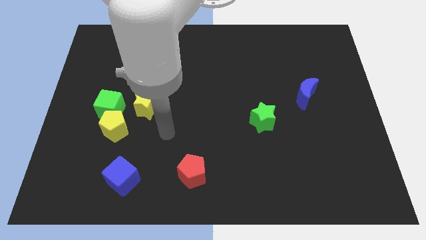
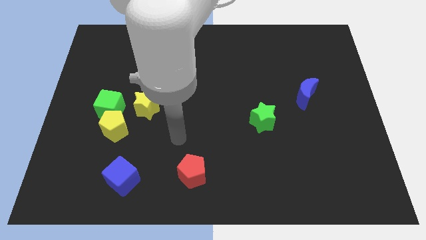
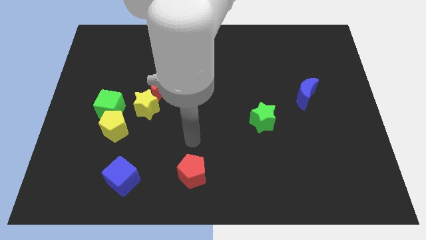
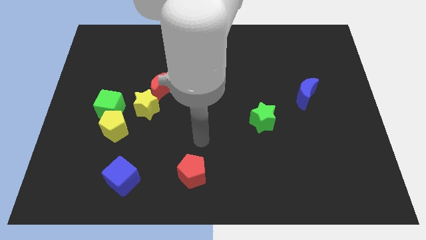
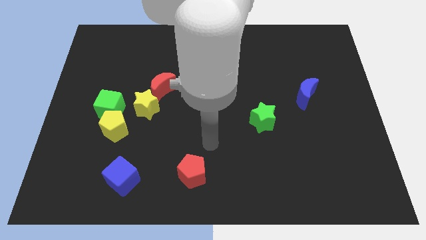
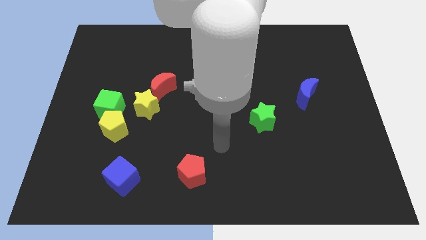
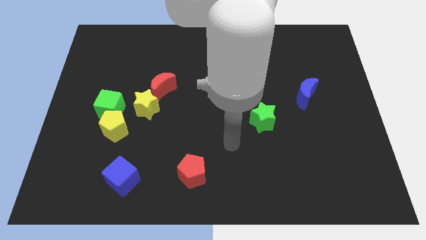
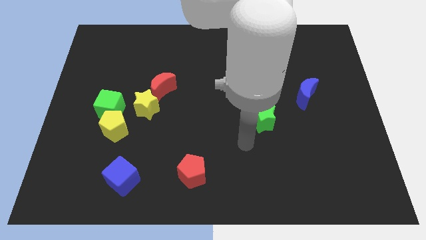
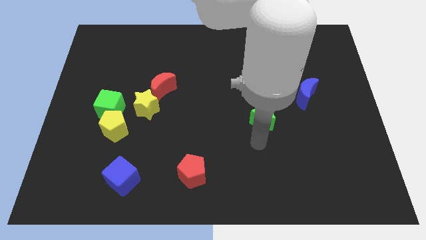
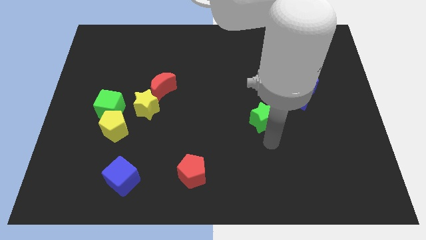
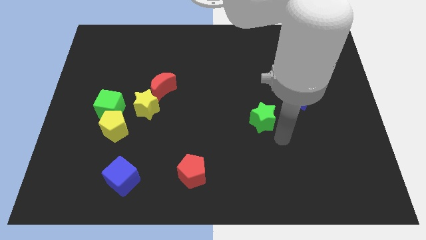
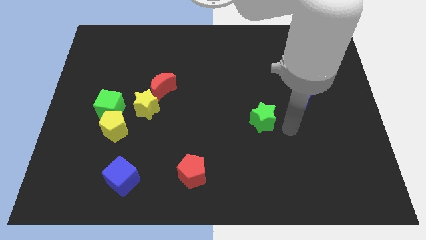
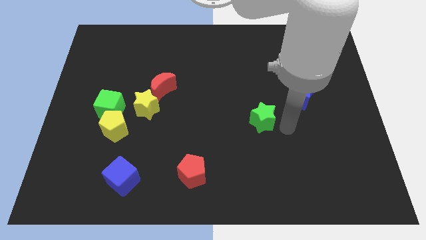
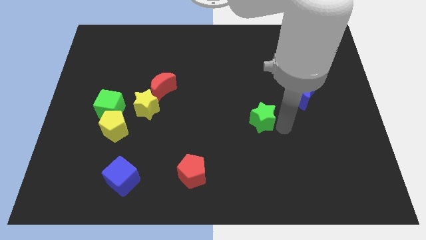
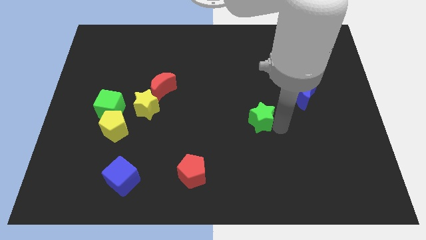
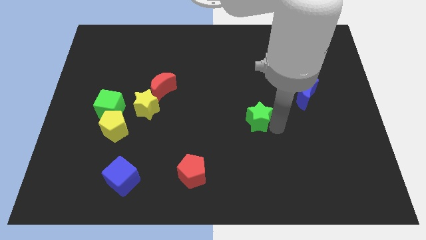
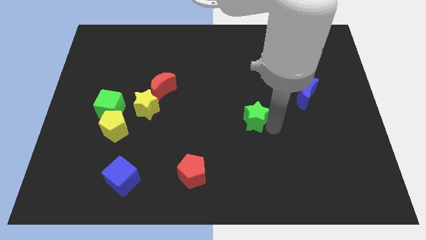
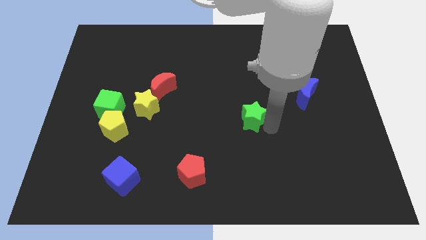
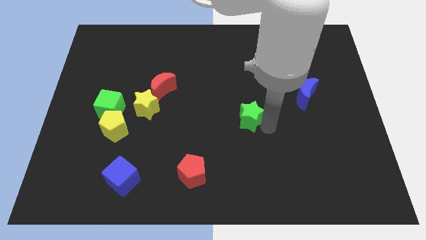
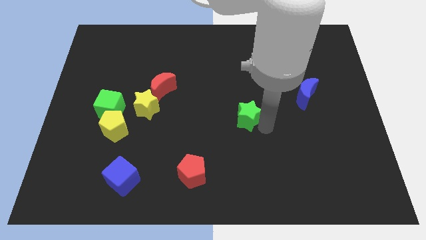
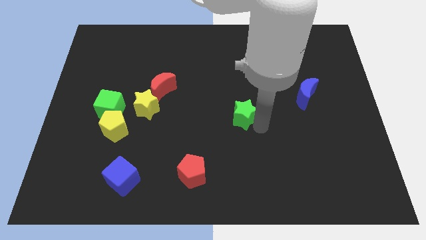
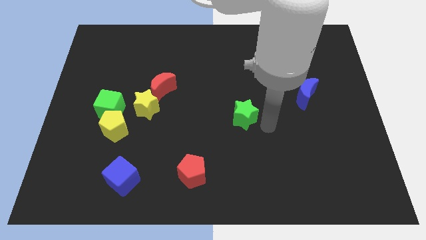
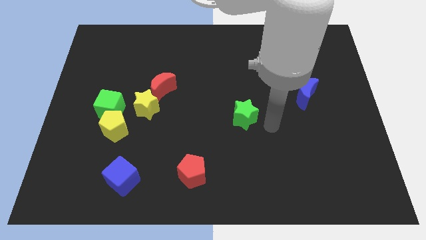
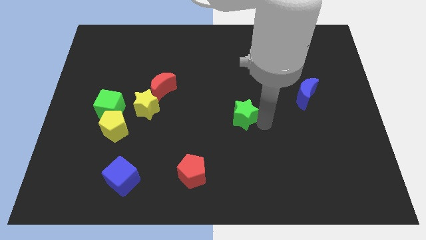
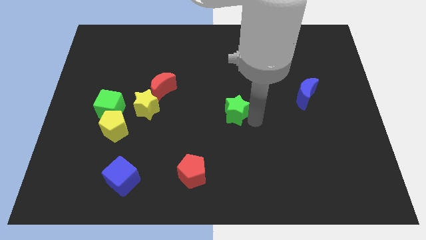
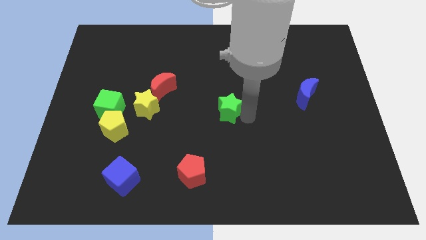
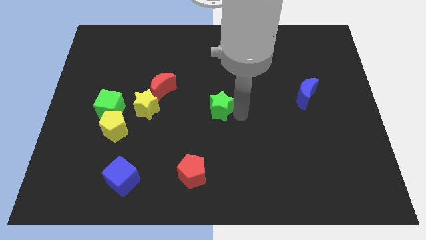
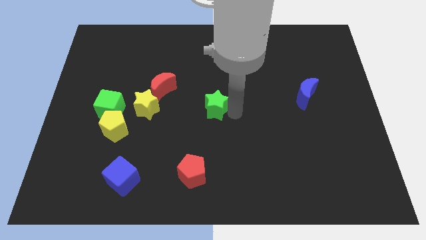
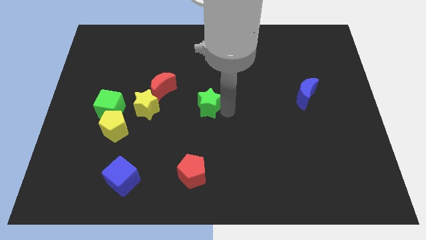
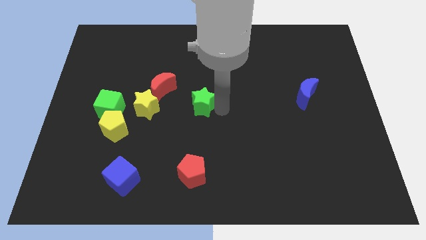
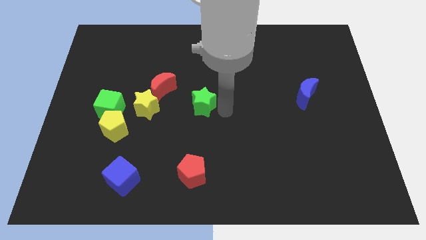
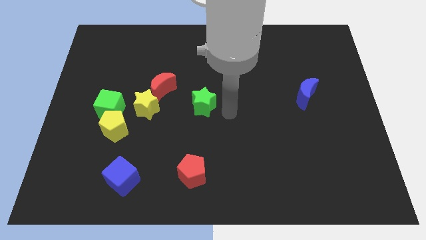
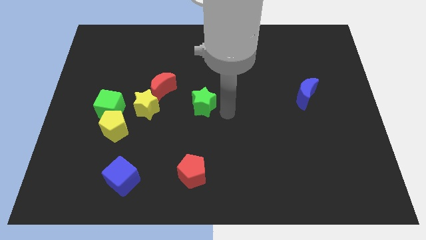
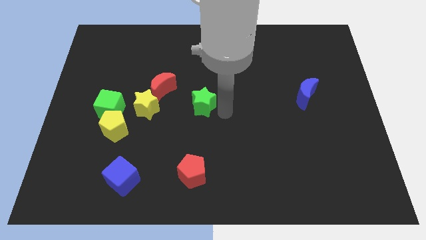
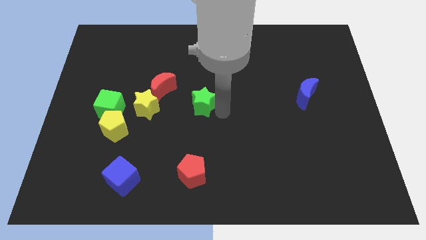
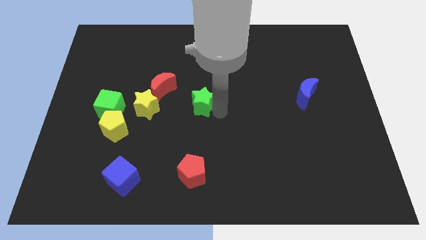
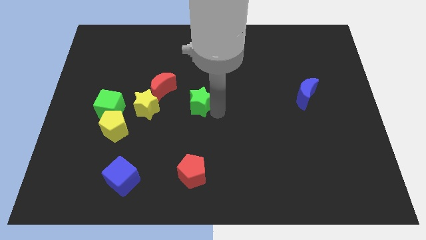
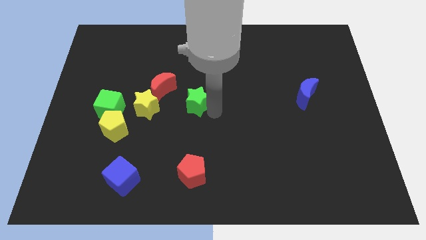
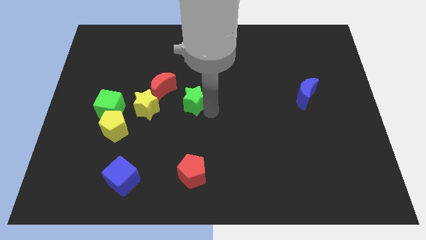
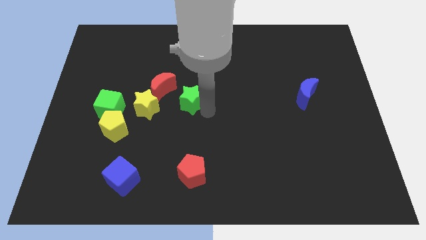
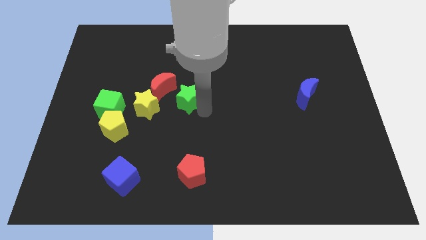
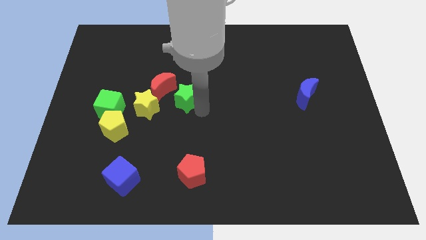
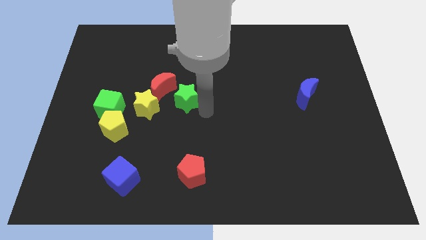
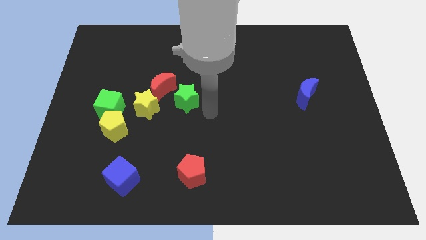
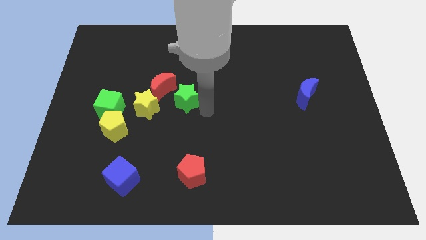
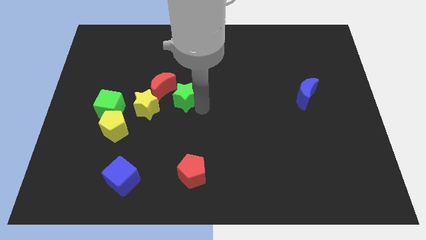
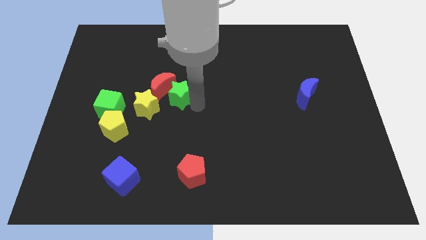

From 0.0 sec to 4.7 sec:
put the green star to the red moon

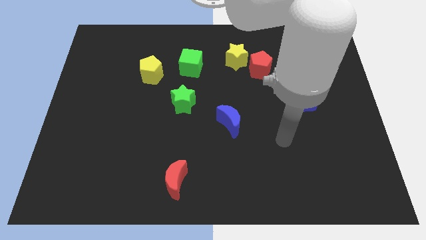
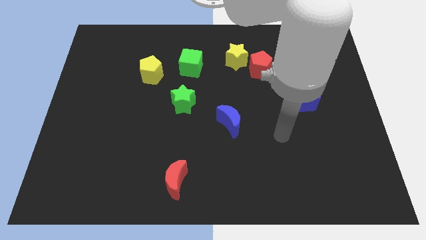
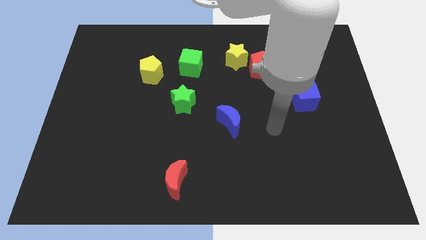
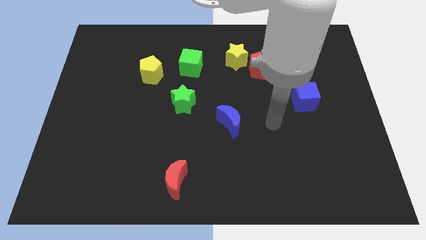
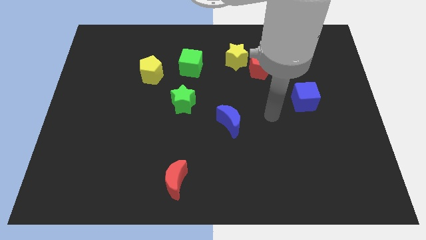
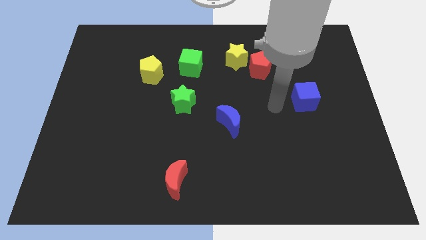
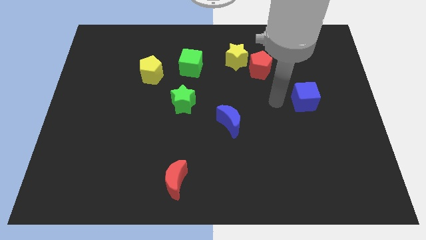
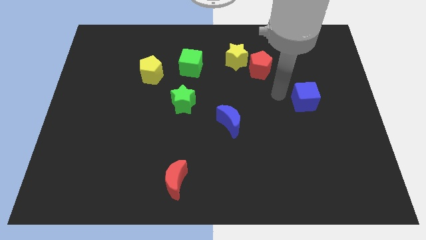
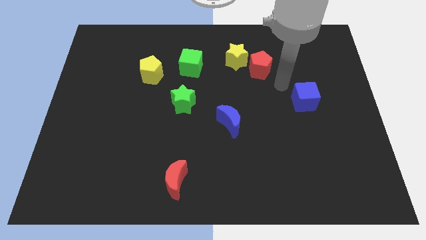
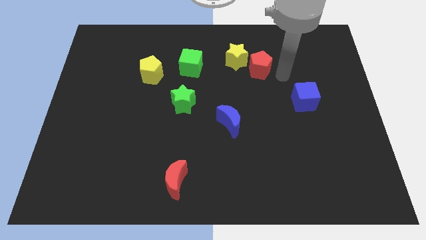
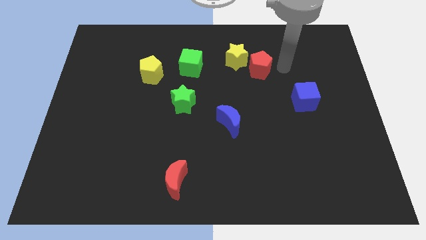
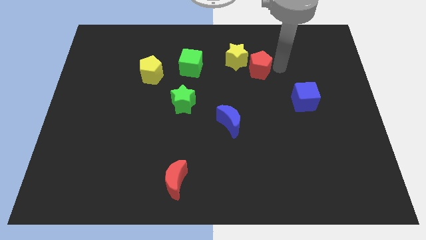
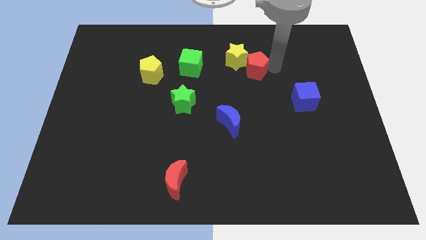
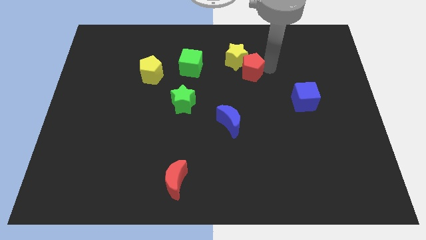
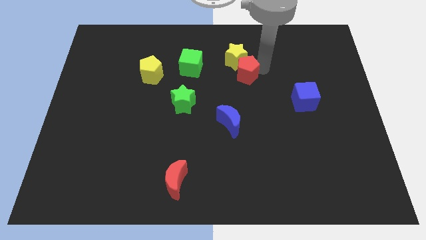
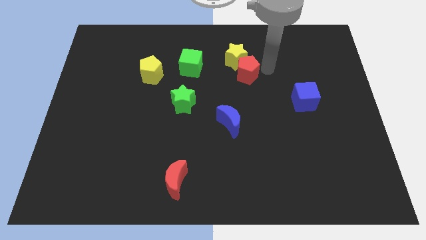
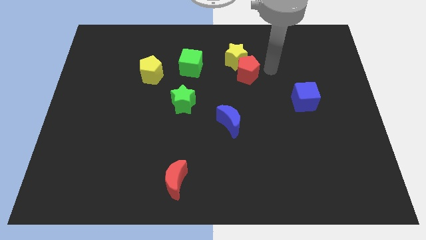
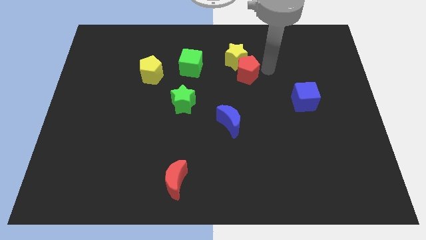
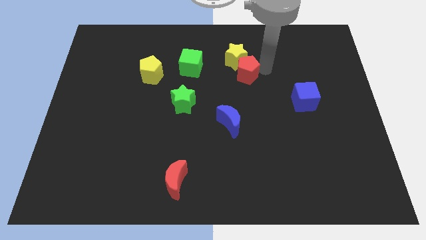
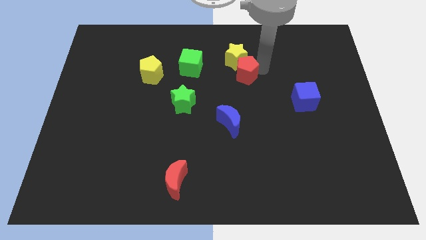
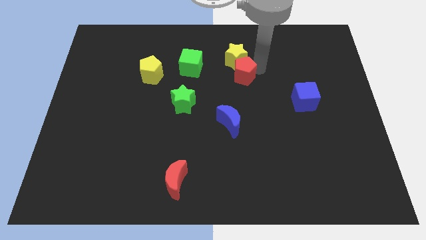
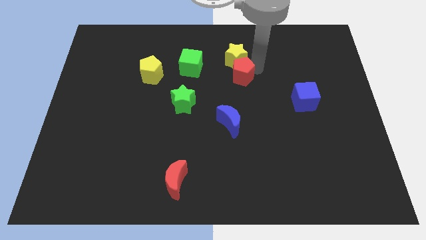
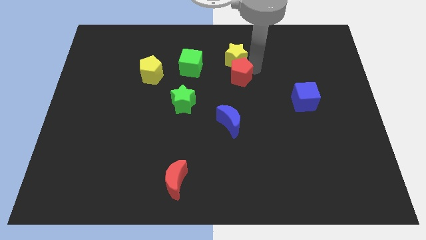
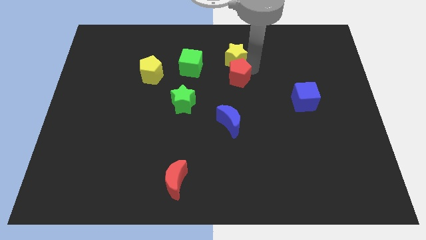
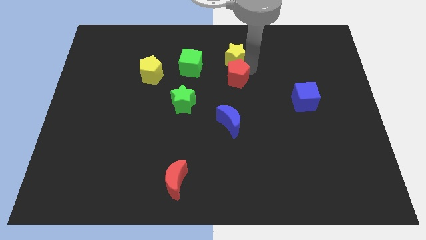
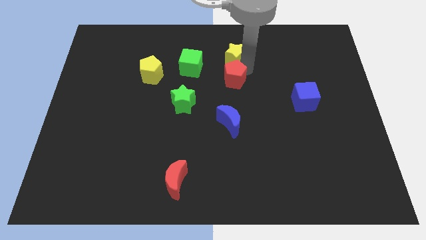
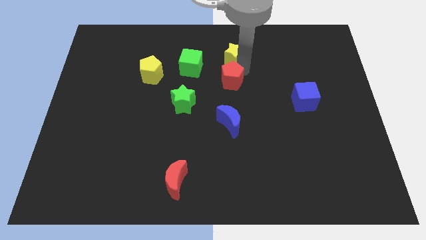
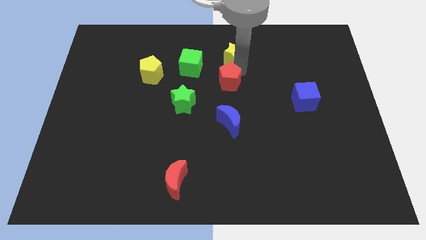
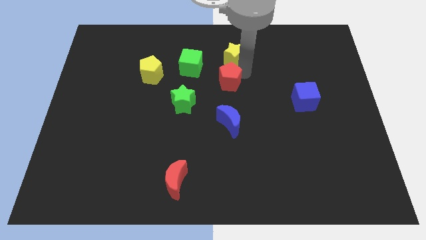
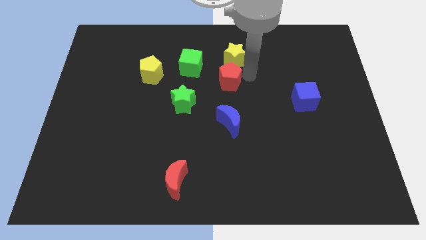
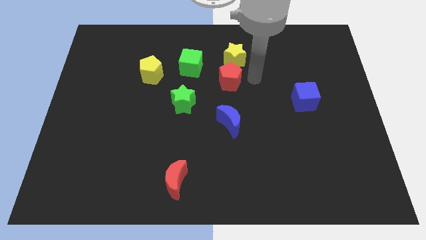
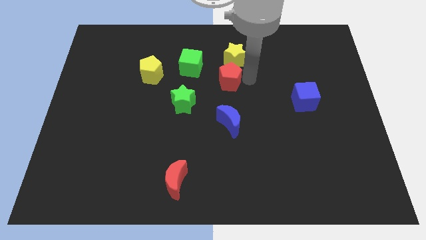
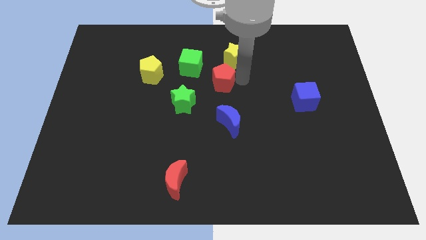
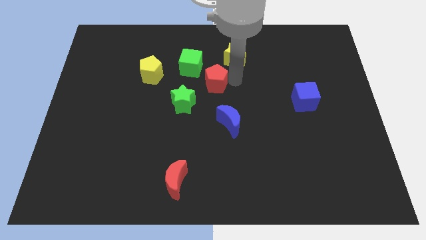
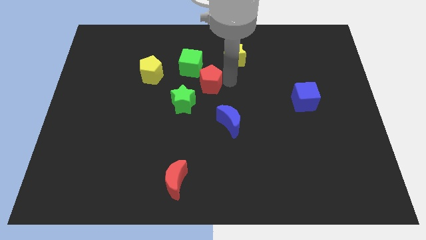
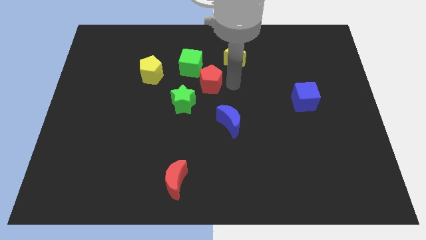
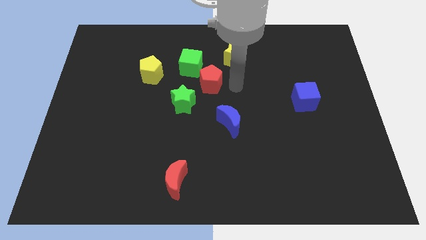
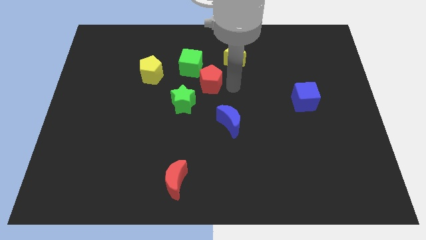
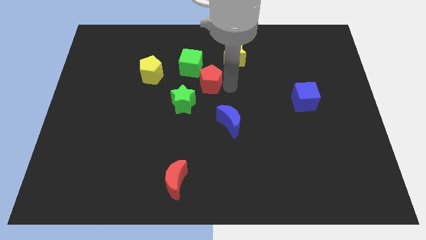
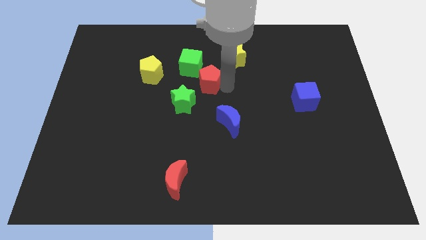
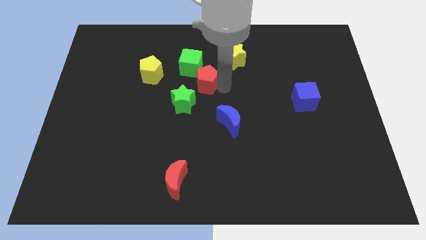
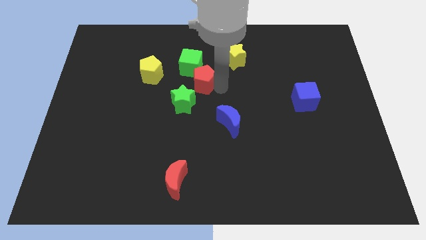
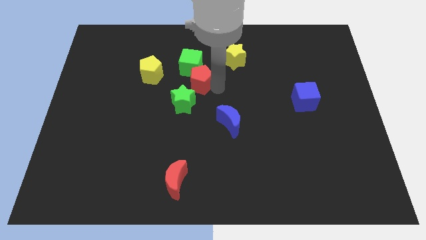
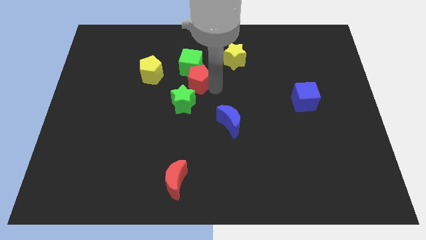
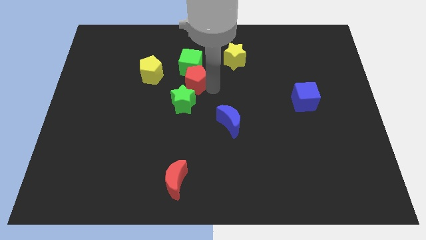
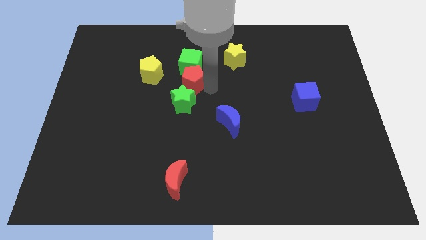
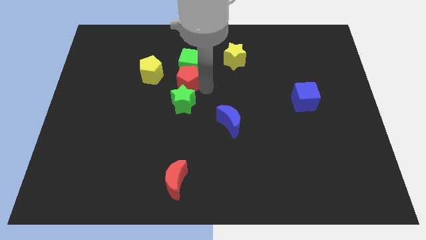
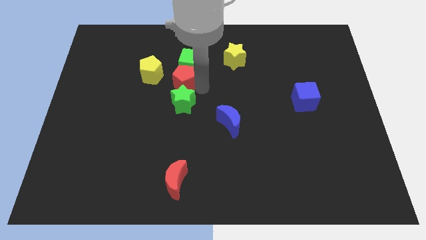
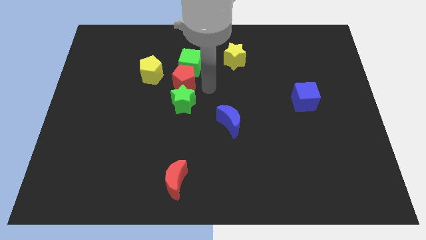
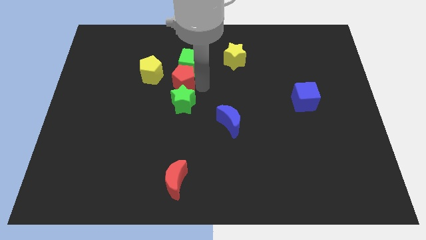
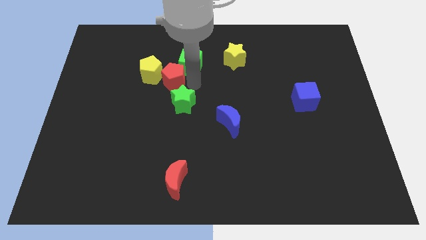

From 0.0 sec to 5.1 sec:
slide the red pentagon close to the yellow pentagon
